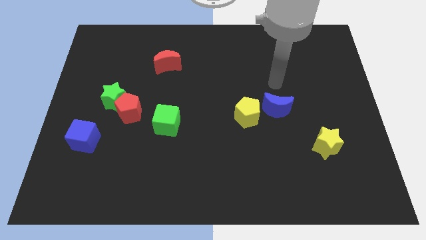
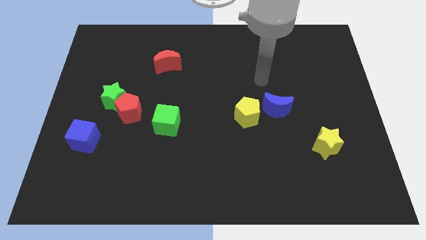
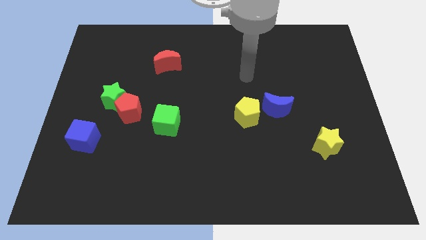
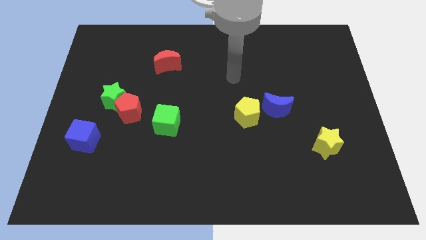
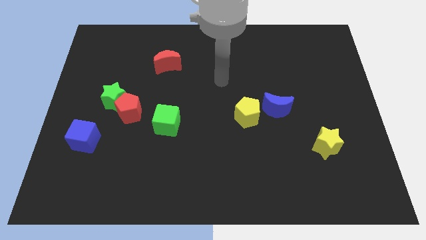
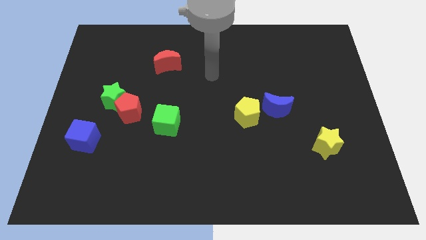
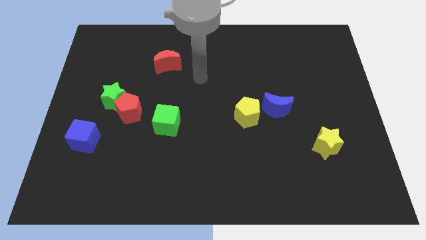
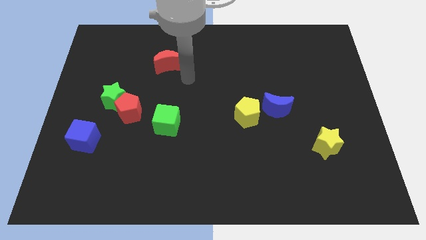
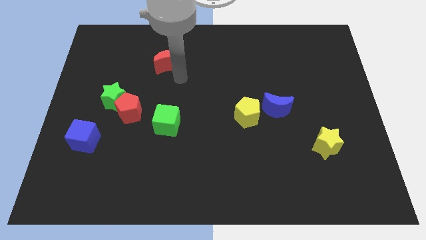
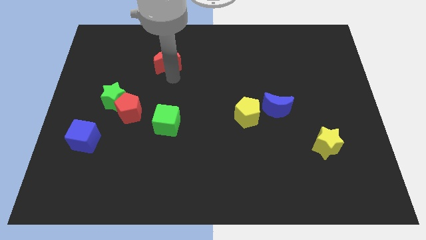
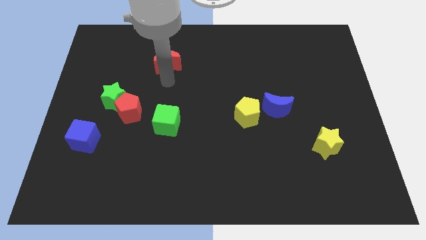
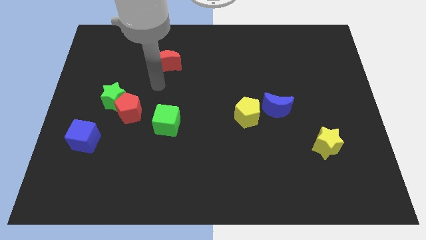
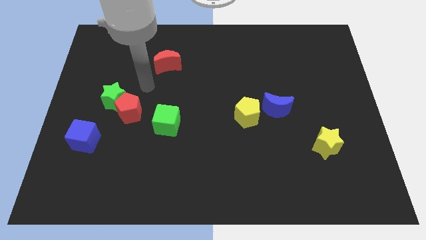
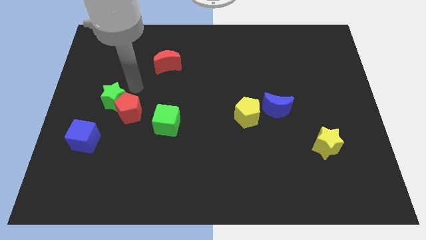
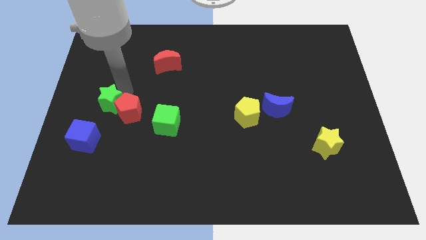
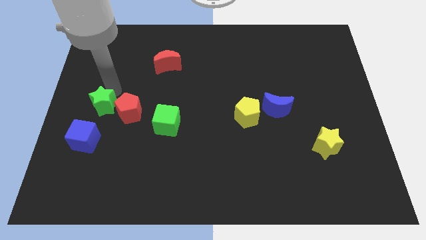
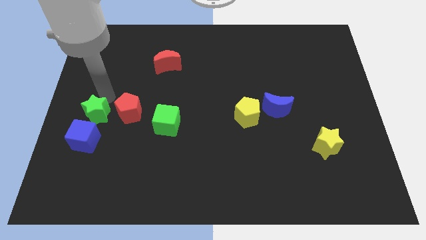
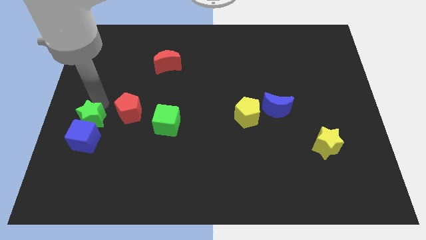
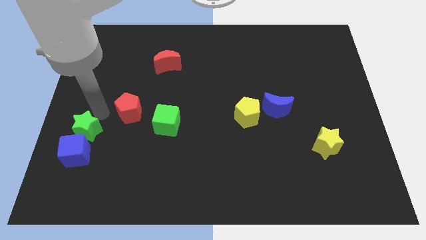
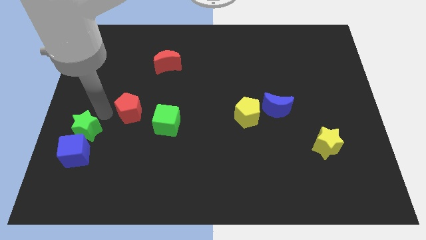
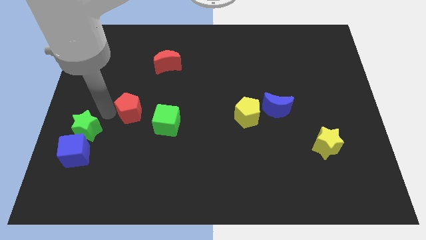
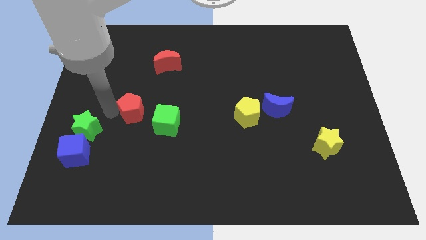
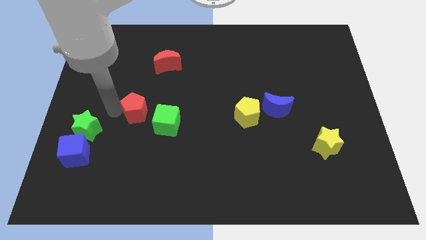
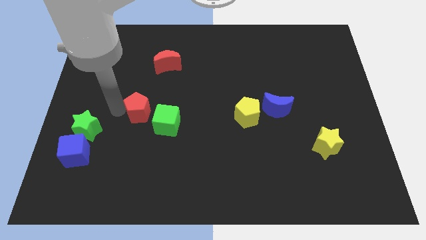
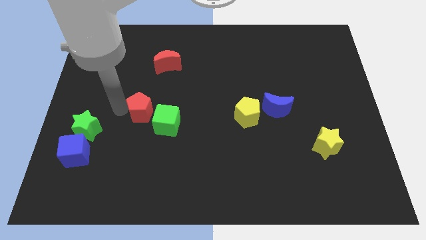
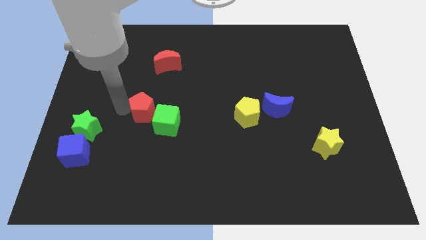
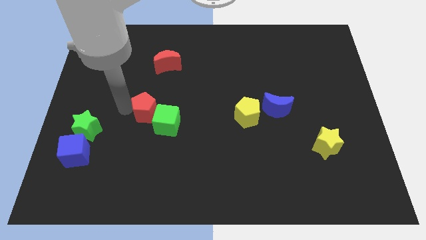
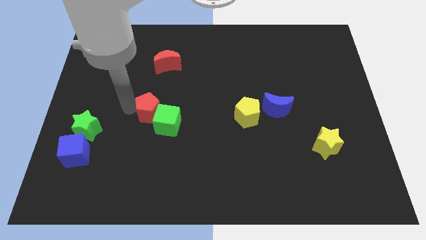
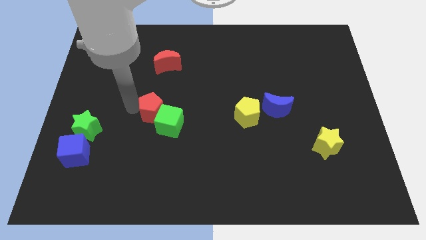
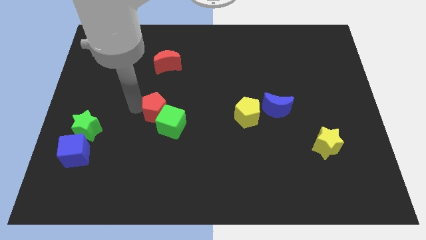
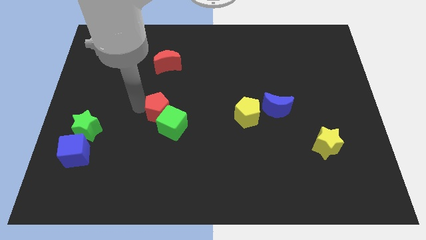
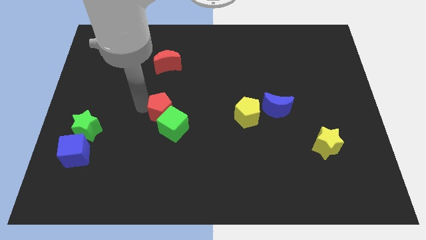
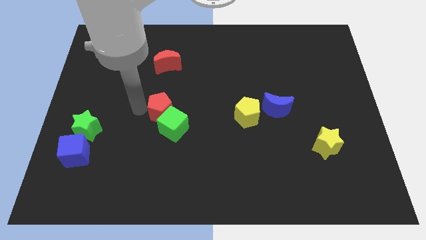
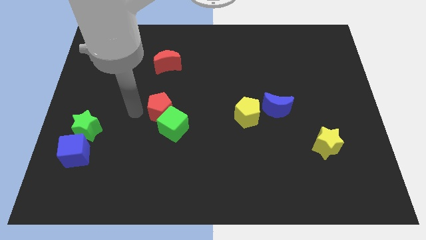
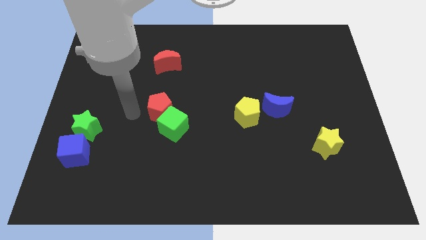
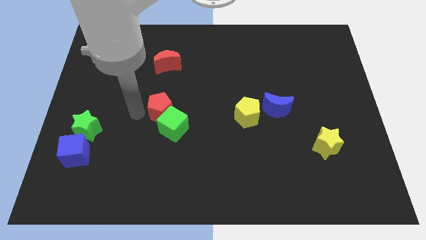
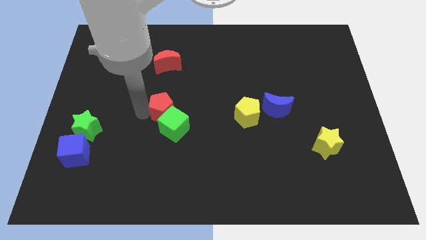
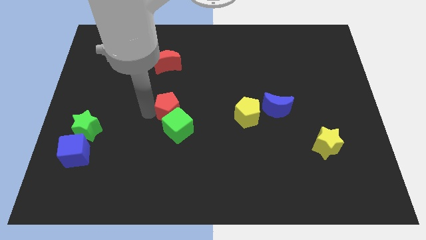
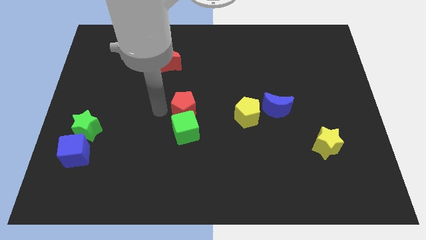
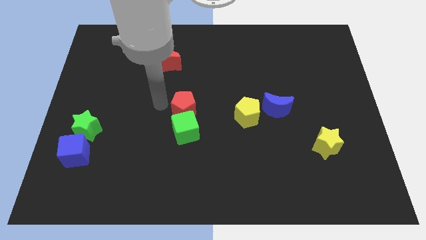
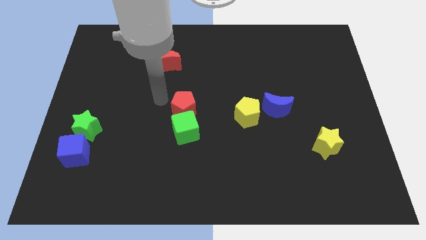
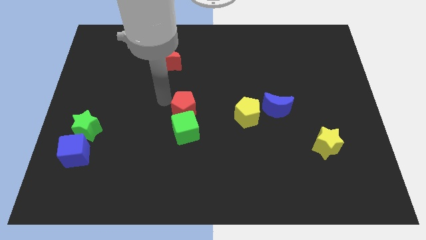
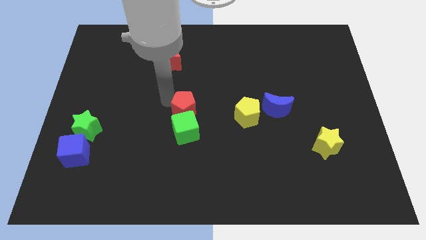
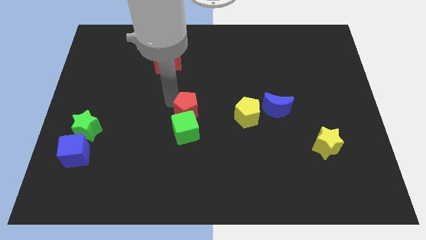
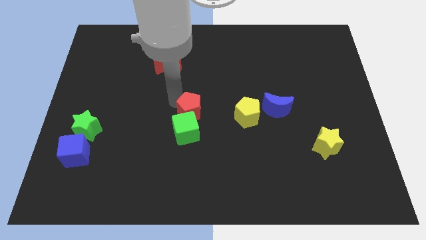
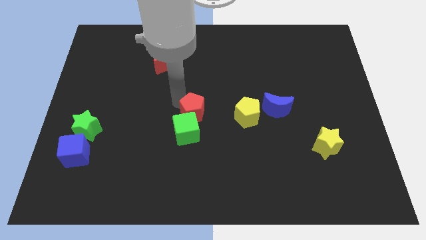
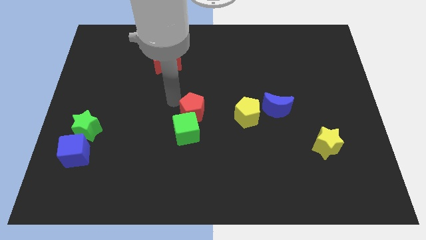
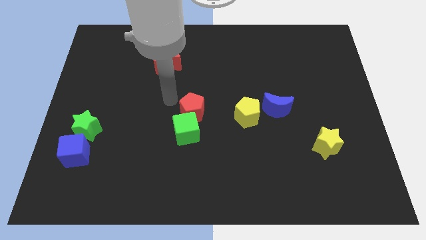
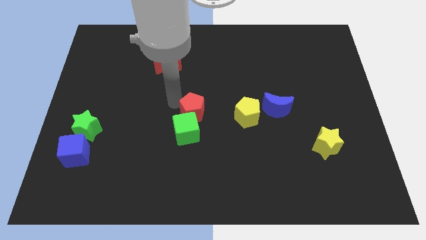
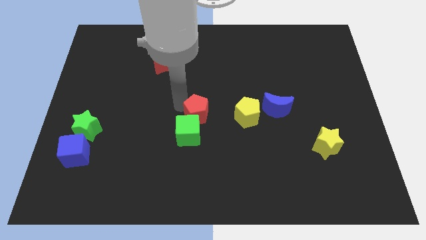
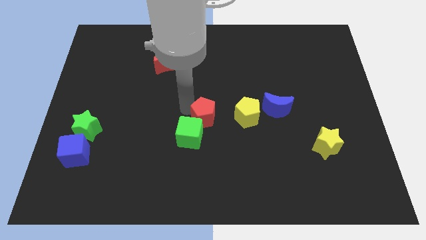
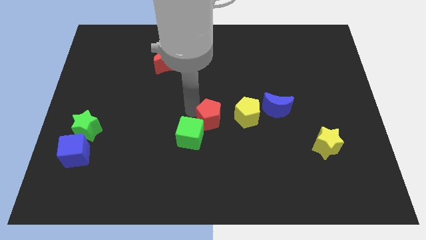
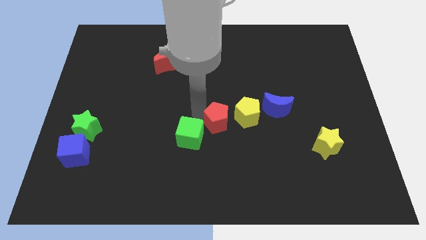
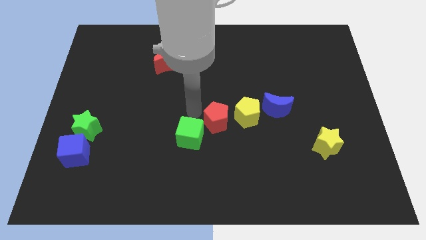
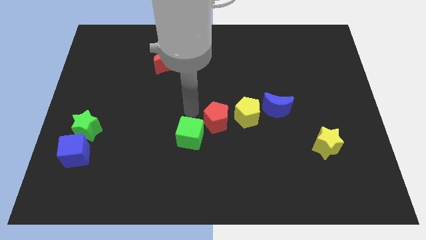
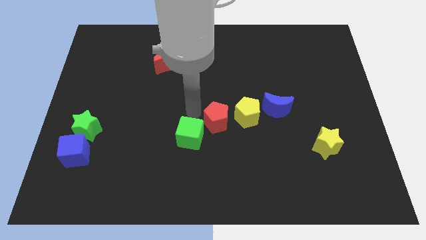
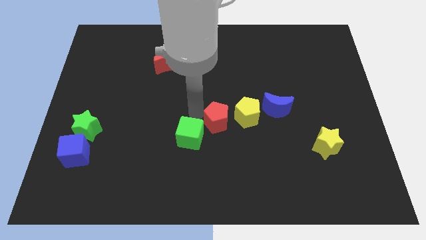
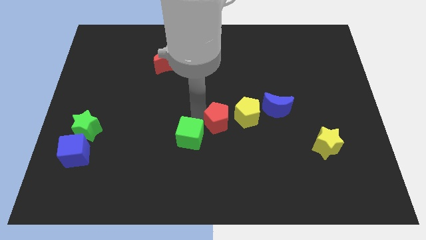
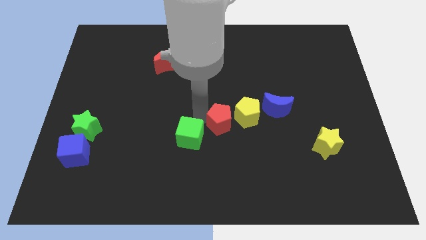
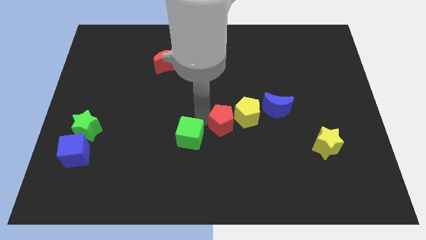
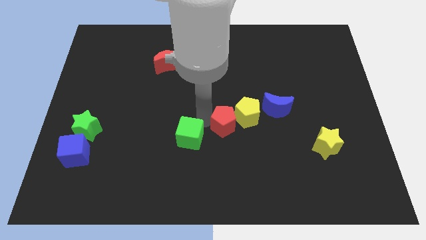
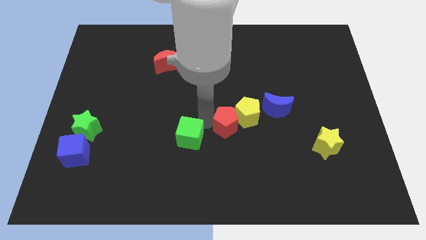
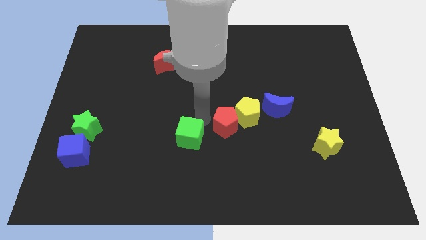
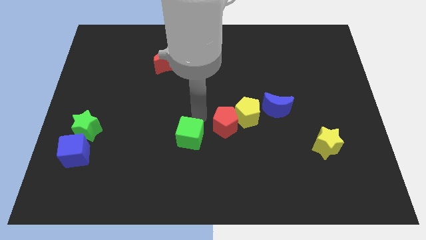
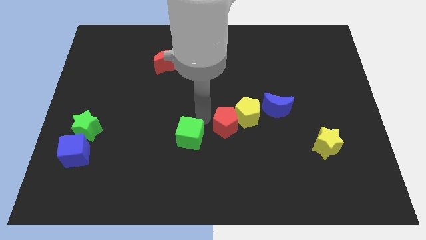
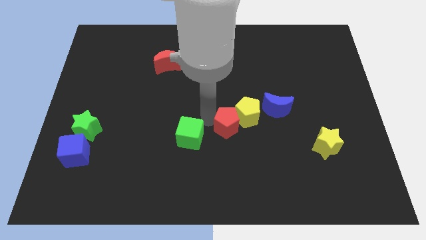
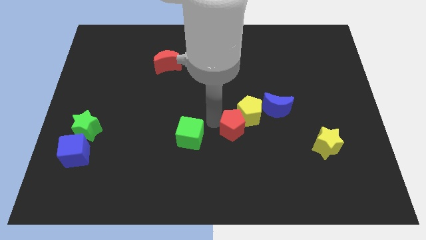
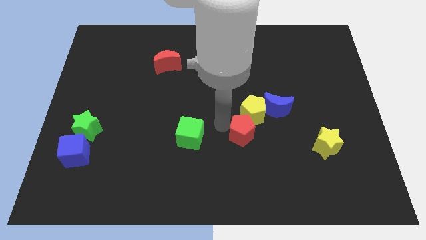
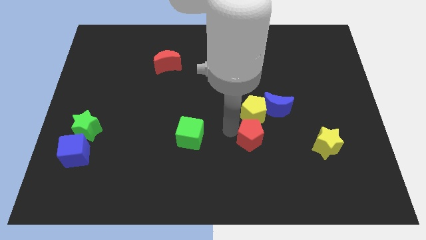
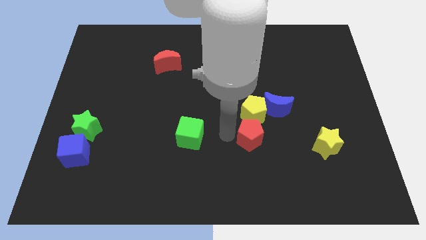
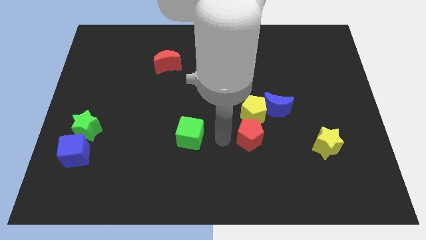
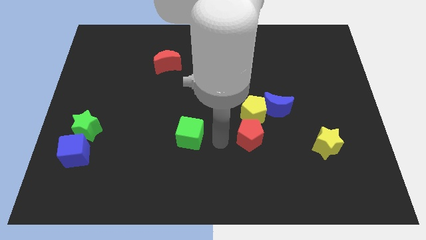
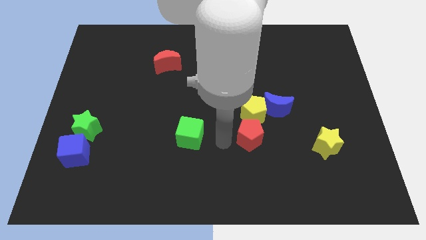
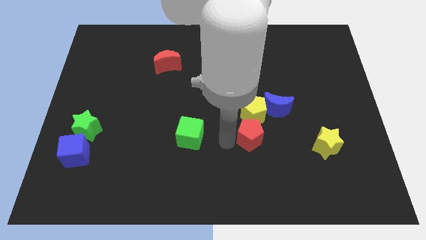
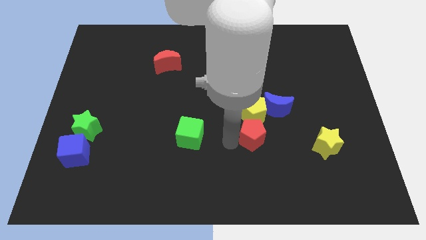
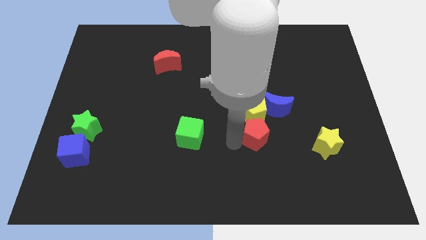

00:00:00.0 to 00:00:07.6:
put the red pentagon to the bottom right side of the yellow pentagon
